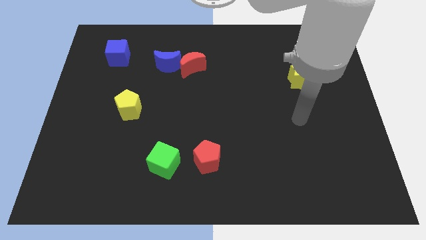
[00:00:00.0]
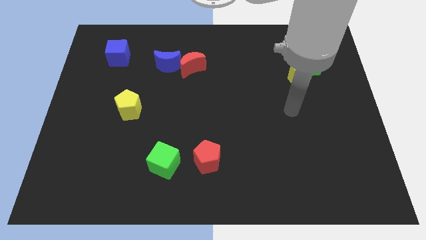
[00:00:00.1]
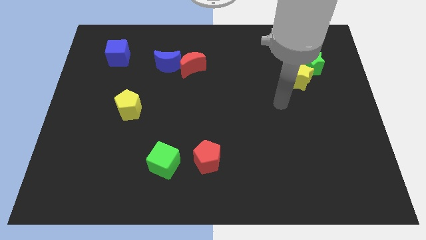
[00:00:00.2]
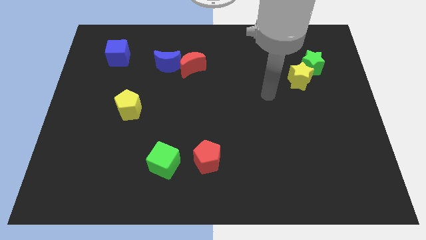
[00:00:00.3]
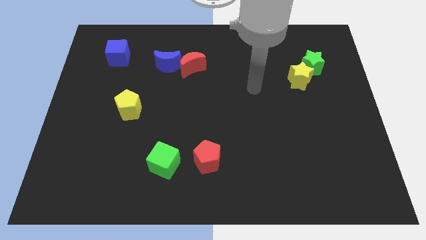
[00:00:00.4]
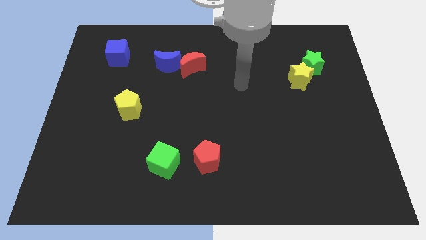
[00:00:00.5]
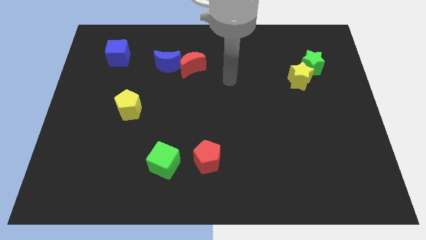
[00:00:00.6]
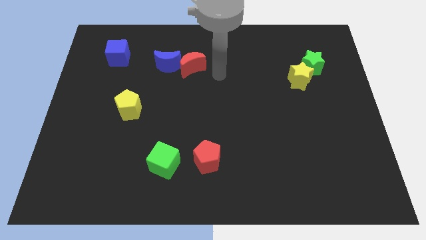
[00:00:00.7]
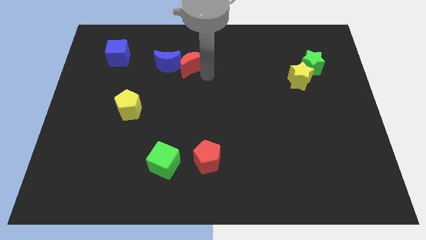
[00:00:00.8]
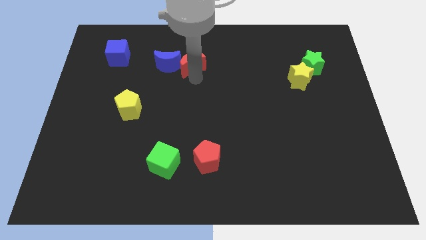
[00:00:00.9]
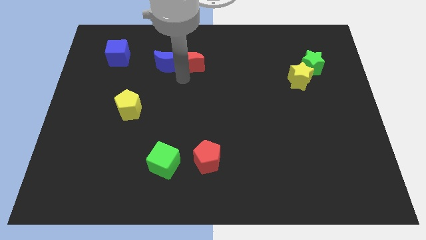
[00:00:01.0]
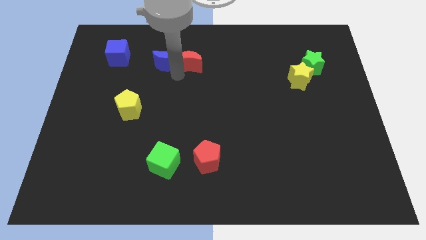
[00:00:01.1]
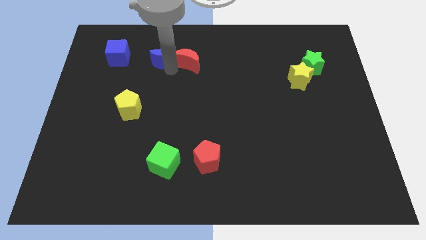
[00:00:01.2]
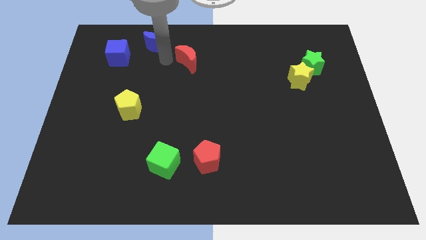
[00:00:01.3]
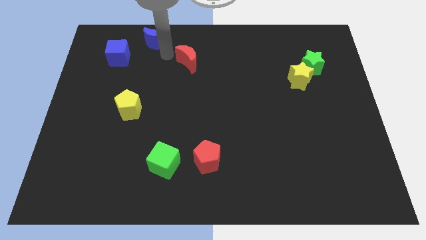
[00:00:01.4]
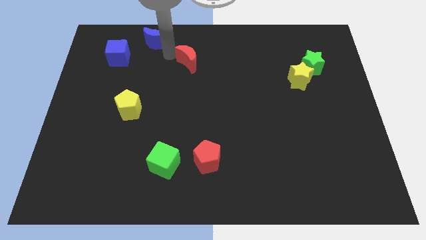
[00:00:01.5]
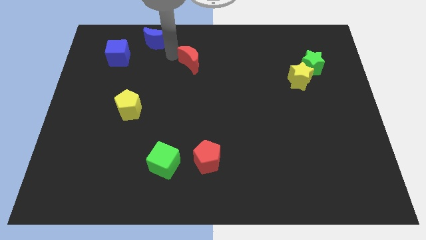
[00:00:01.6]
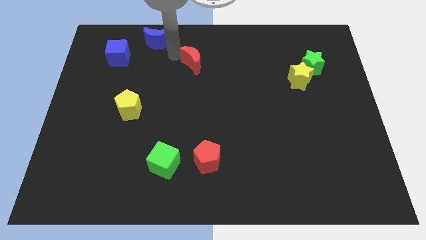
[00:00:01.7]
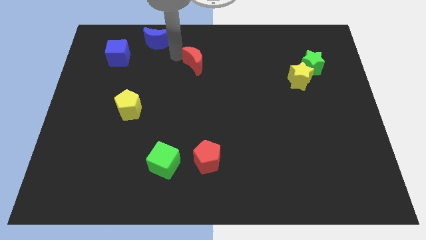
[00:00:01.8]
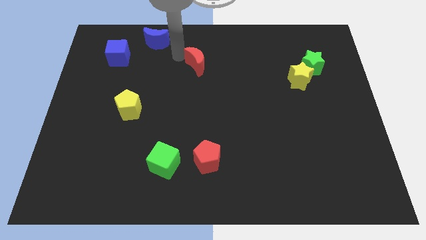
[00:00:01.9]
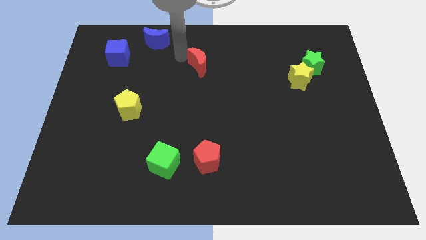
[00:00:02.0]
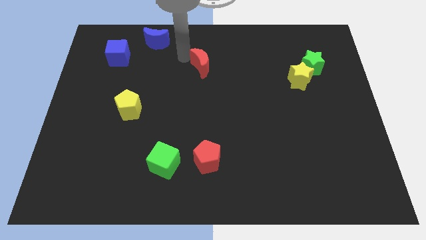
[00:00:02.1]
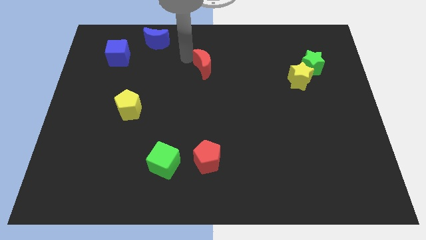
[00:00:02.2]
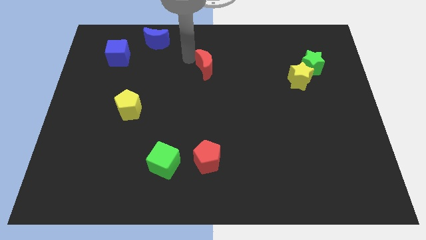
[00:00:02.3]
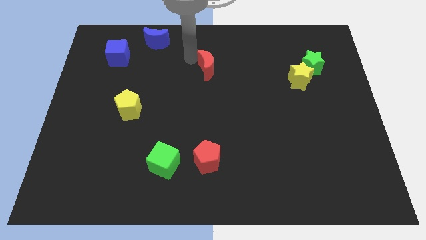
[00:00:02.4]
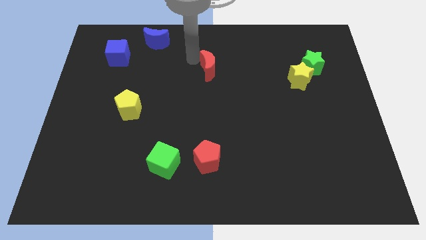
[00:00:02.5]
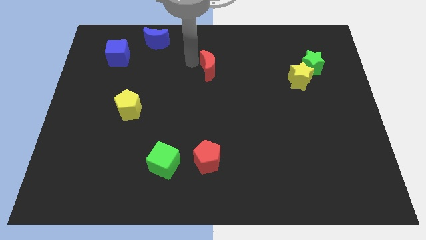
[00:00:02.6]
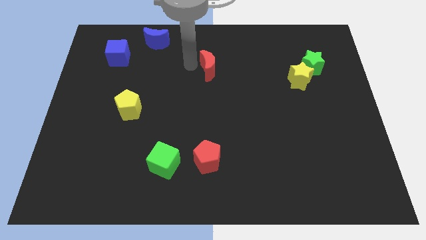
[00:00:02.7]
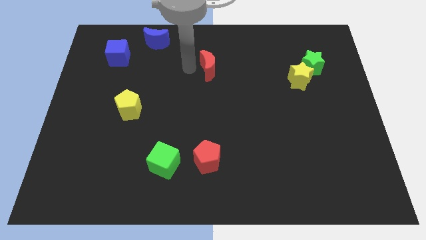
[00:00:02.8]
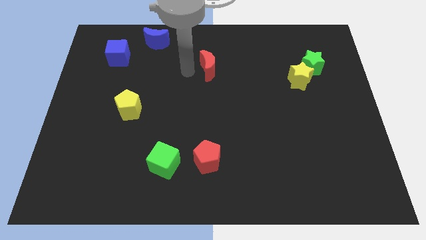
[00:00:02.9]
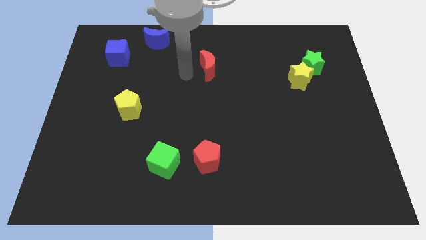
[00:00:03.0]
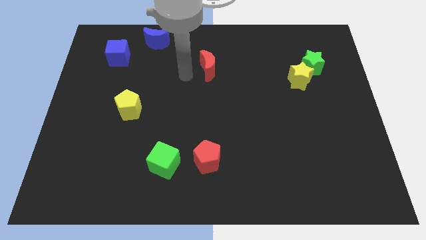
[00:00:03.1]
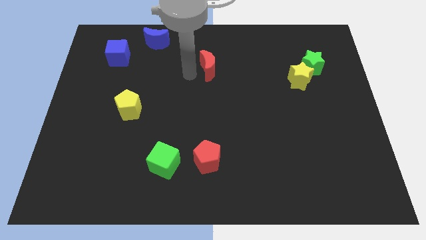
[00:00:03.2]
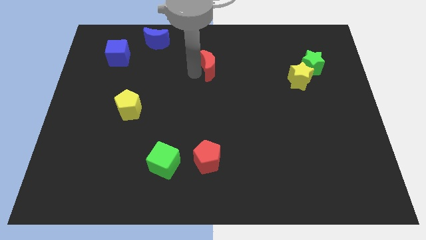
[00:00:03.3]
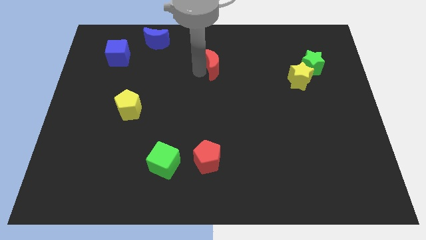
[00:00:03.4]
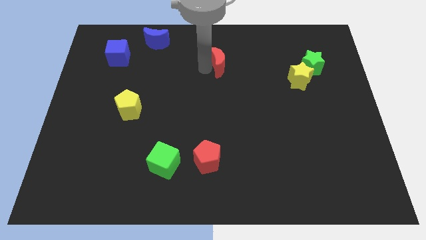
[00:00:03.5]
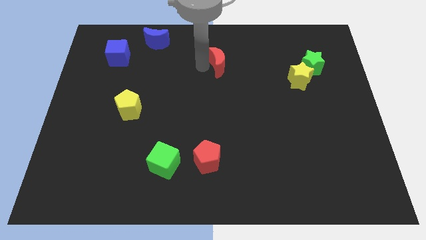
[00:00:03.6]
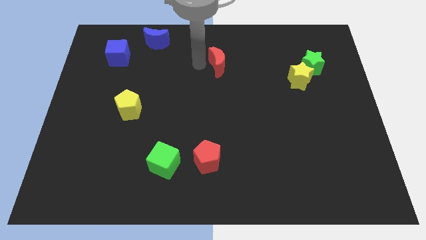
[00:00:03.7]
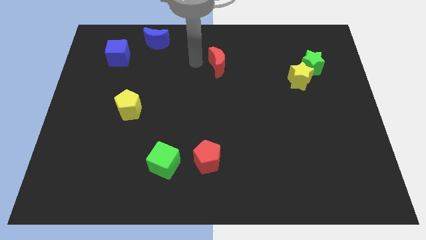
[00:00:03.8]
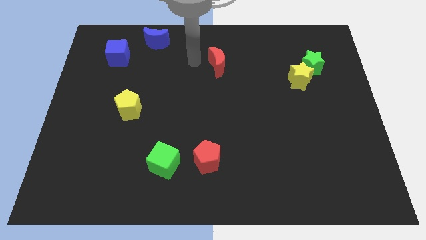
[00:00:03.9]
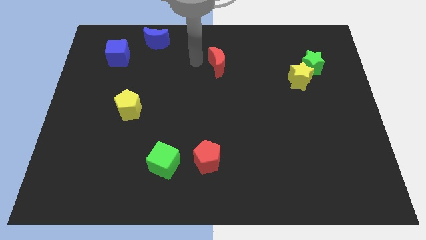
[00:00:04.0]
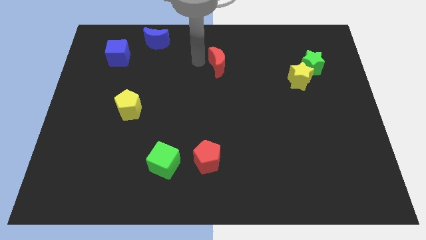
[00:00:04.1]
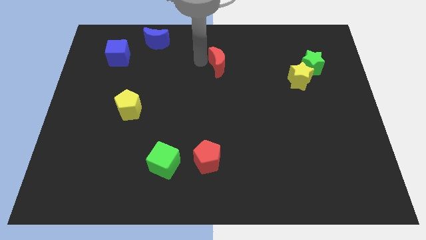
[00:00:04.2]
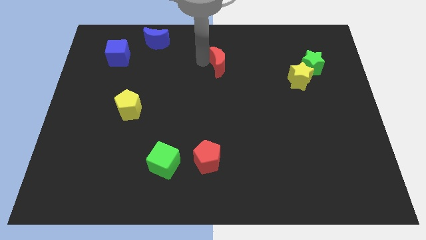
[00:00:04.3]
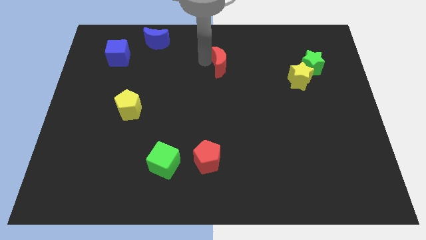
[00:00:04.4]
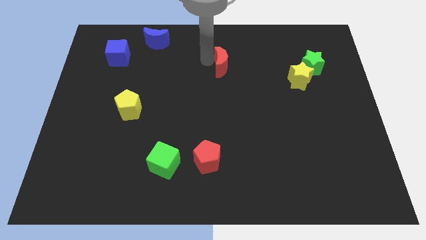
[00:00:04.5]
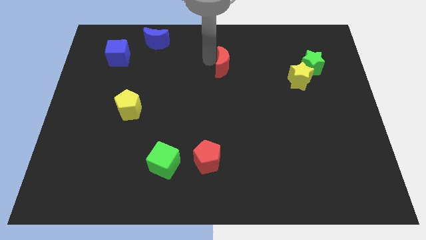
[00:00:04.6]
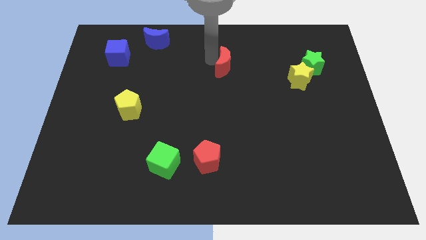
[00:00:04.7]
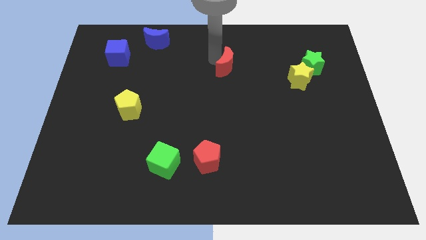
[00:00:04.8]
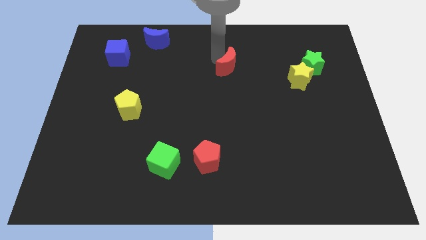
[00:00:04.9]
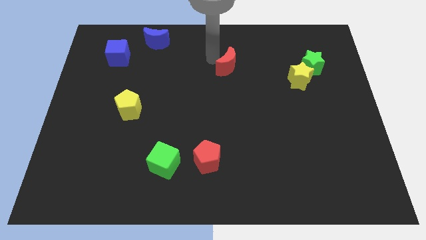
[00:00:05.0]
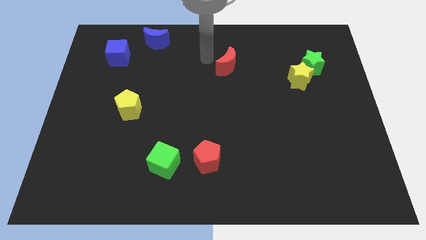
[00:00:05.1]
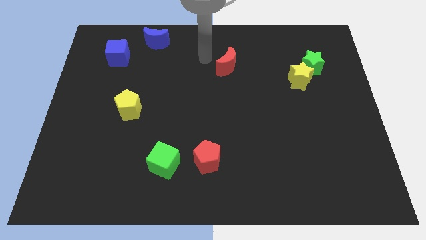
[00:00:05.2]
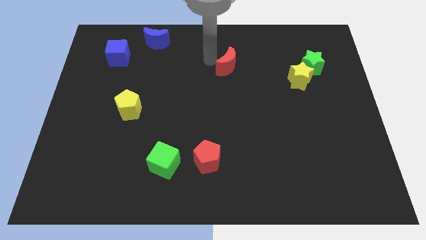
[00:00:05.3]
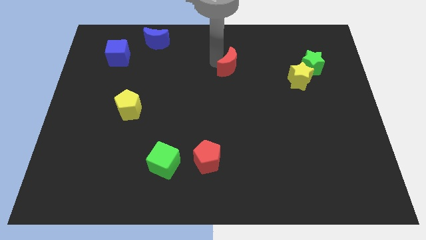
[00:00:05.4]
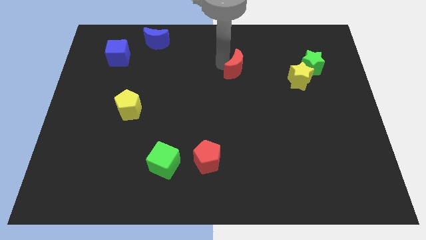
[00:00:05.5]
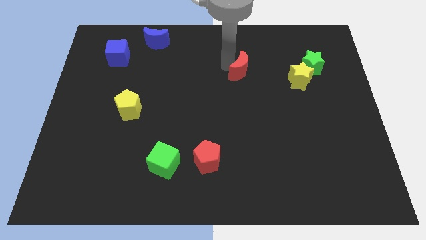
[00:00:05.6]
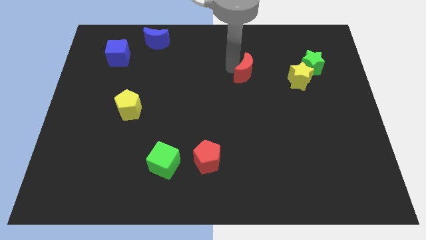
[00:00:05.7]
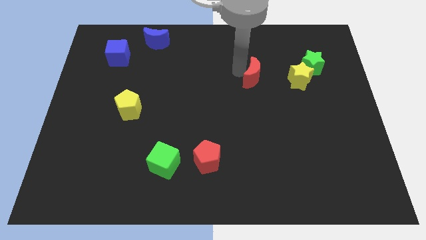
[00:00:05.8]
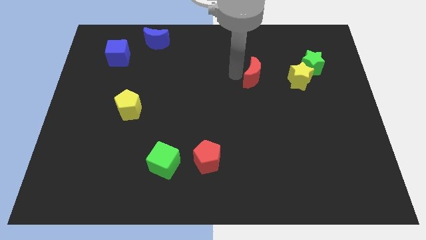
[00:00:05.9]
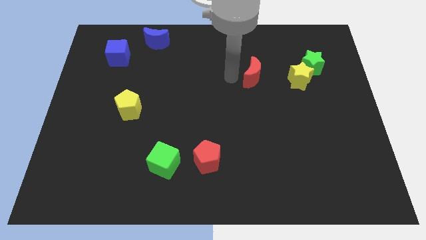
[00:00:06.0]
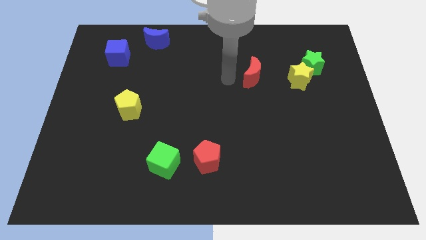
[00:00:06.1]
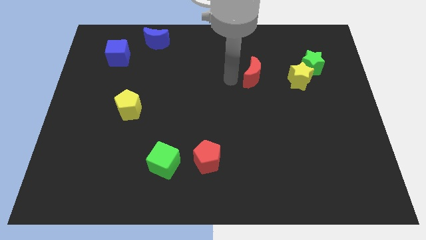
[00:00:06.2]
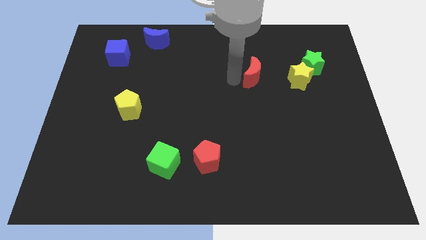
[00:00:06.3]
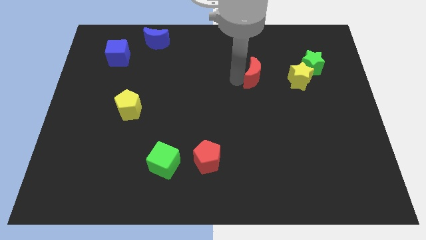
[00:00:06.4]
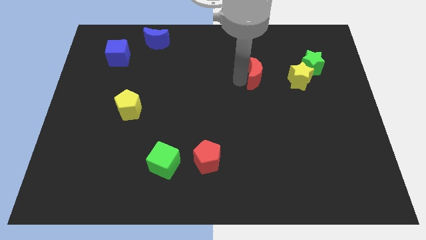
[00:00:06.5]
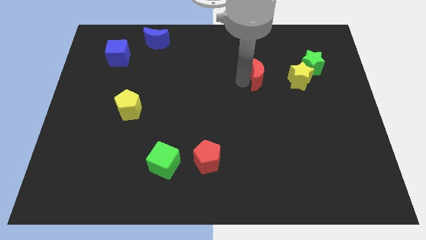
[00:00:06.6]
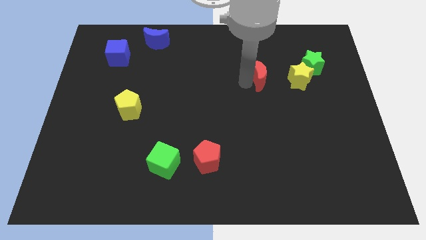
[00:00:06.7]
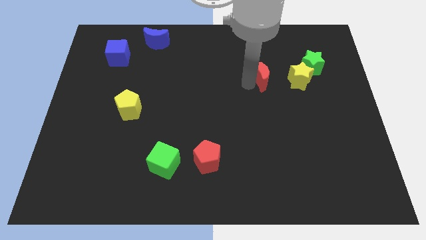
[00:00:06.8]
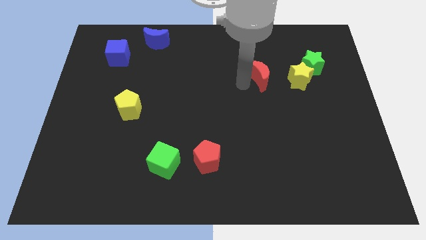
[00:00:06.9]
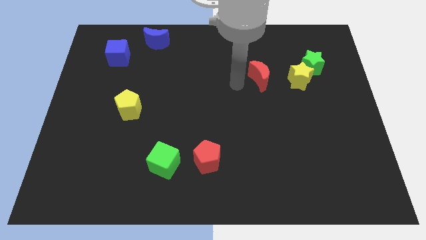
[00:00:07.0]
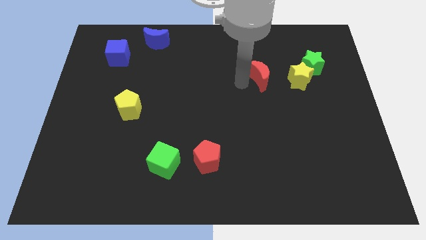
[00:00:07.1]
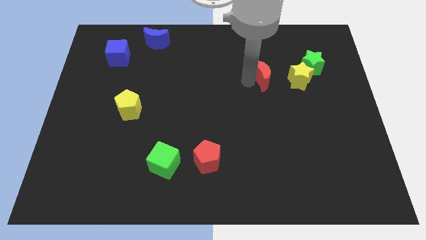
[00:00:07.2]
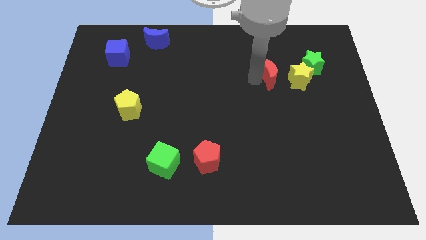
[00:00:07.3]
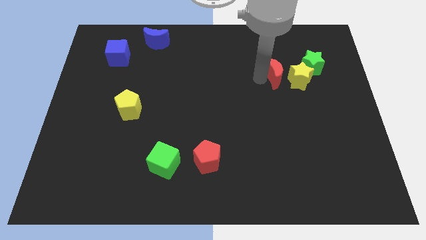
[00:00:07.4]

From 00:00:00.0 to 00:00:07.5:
push the red moon close to the yellow star
